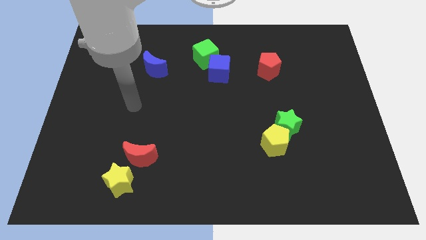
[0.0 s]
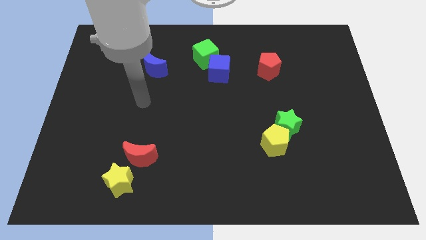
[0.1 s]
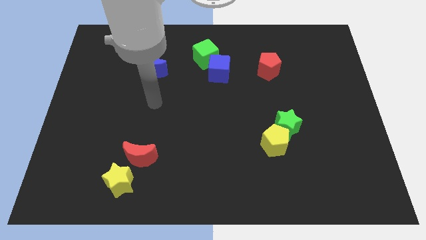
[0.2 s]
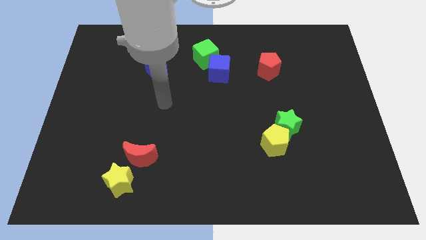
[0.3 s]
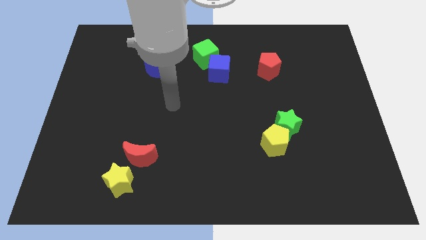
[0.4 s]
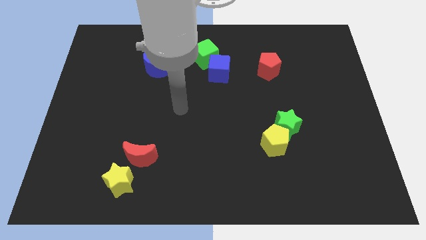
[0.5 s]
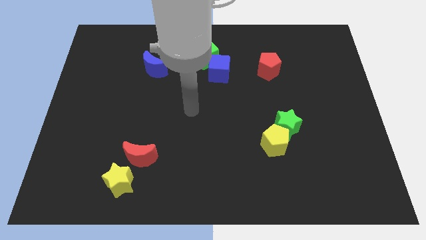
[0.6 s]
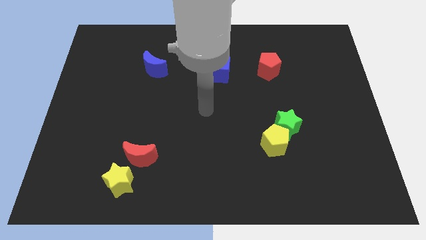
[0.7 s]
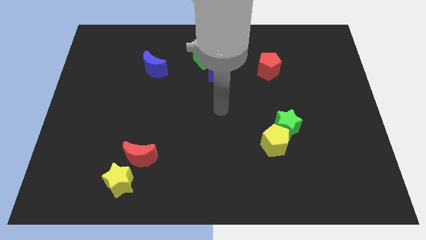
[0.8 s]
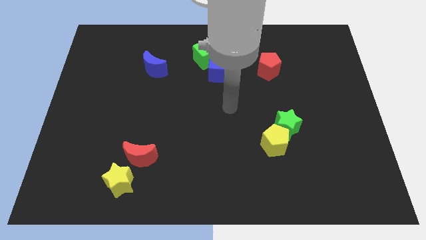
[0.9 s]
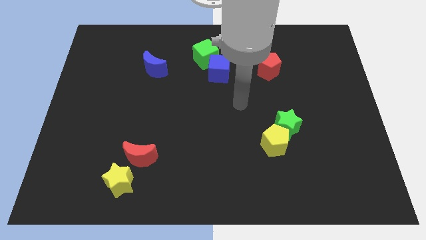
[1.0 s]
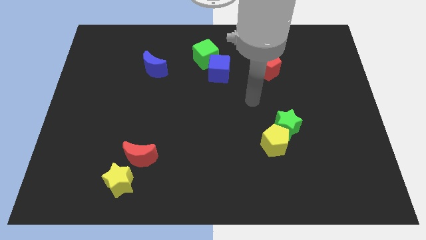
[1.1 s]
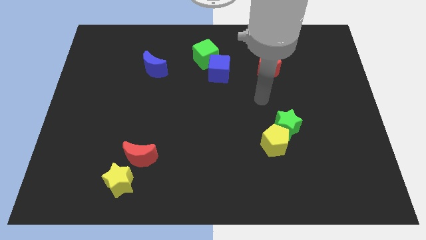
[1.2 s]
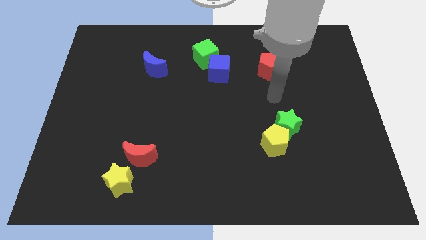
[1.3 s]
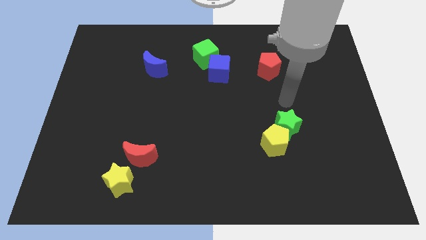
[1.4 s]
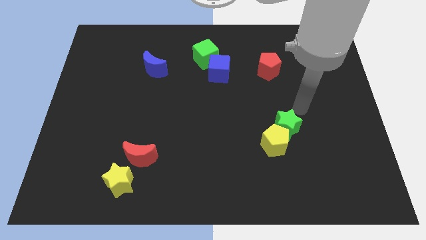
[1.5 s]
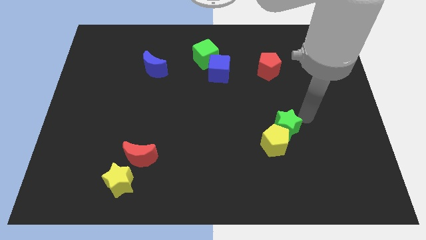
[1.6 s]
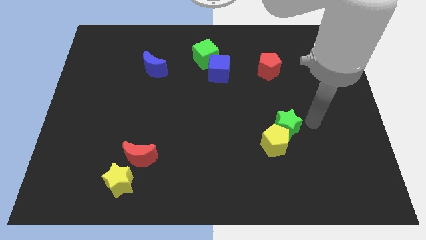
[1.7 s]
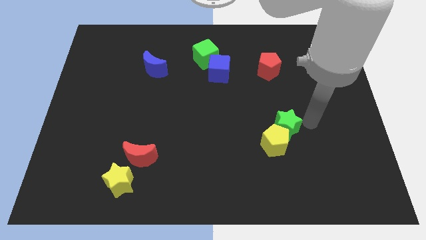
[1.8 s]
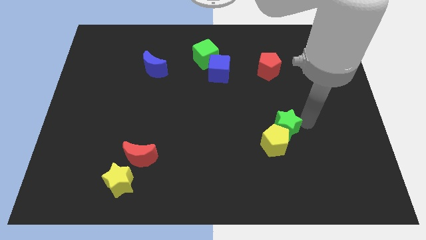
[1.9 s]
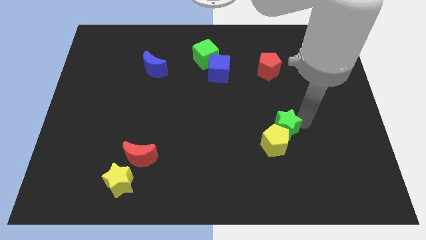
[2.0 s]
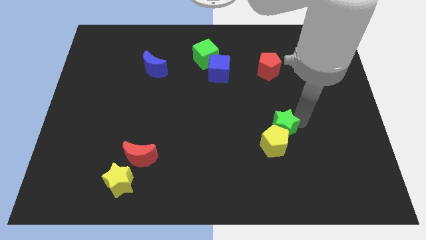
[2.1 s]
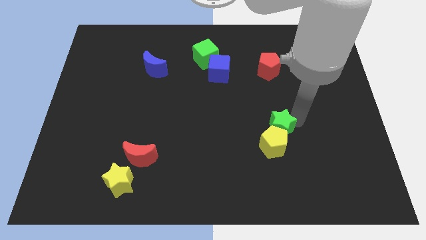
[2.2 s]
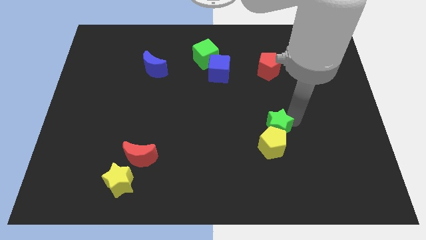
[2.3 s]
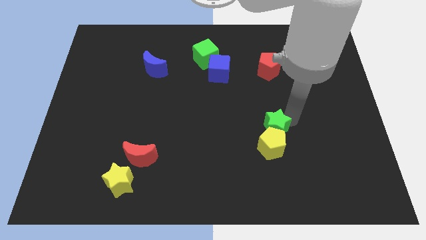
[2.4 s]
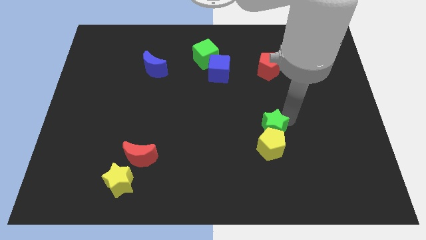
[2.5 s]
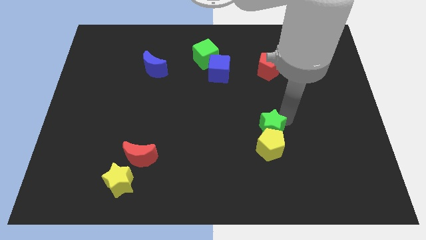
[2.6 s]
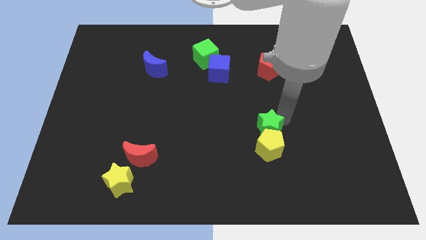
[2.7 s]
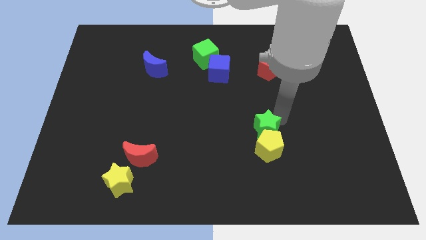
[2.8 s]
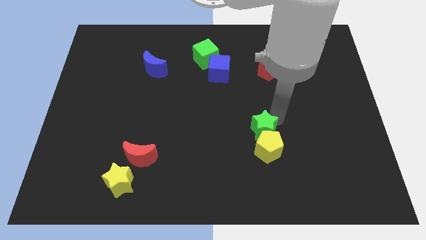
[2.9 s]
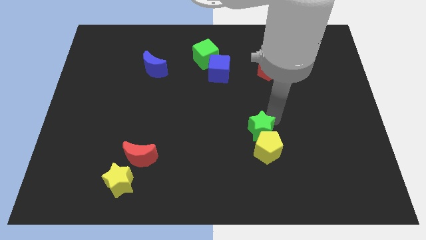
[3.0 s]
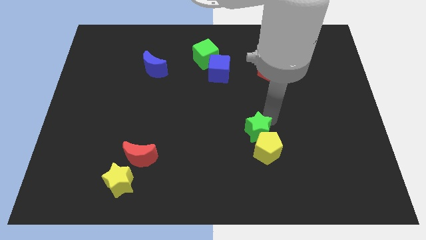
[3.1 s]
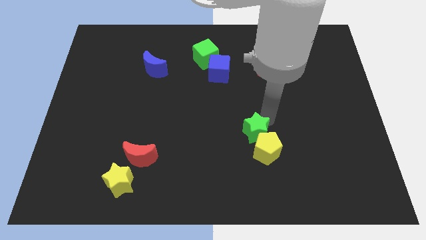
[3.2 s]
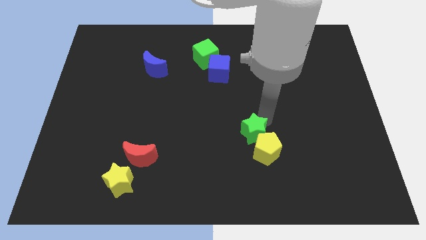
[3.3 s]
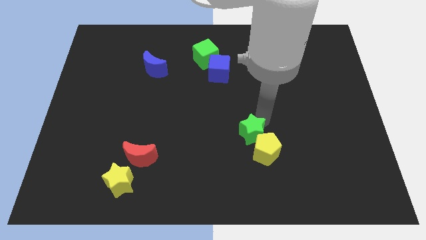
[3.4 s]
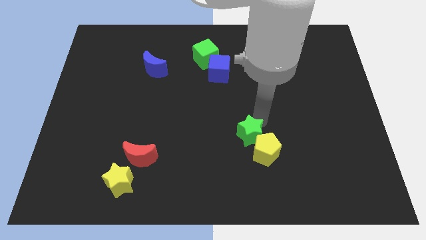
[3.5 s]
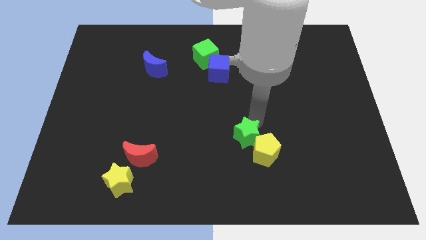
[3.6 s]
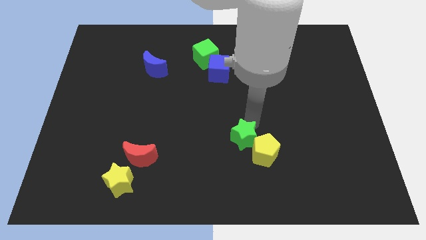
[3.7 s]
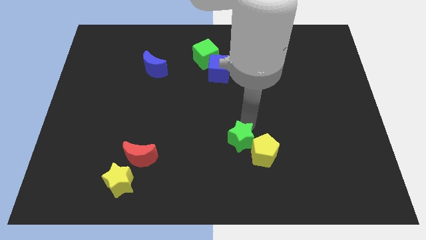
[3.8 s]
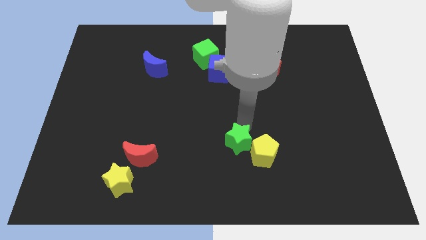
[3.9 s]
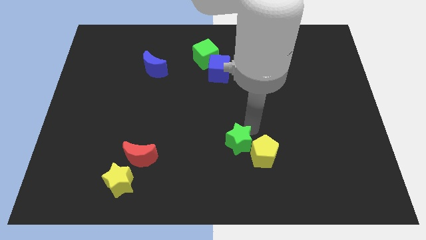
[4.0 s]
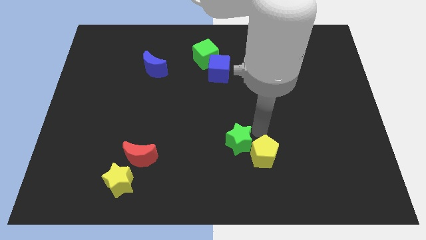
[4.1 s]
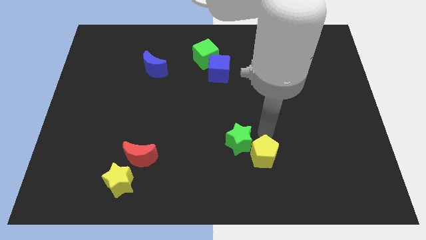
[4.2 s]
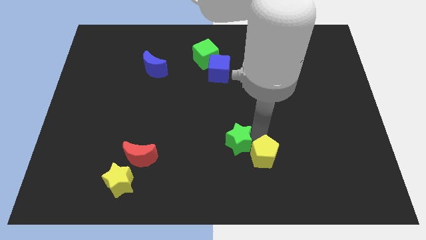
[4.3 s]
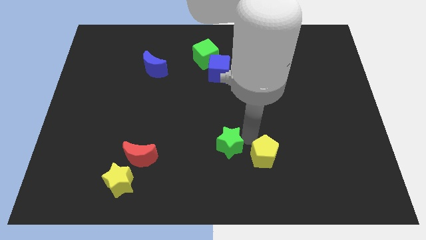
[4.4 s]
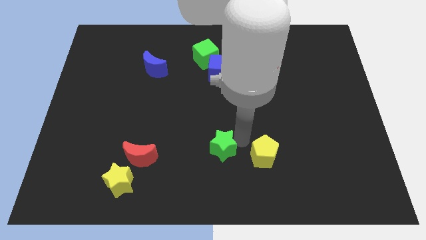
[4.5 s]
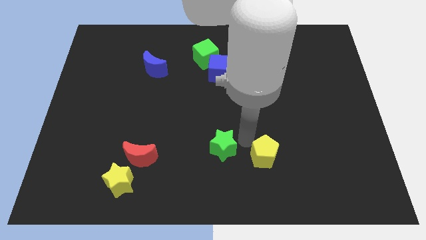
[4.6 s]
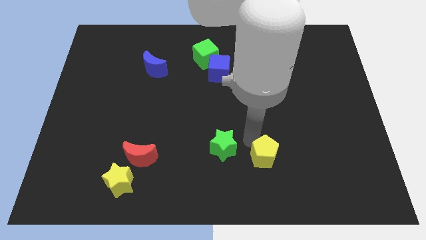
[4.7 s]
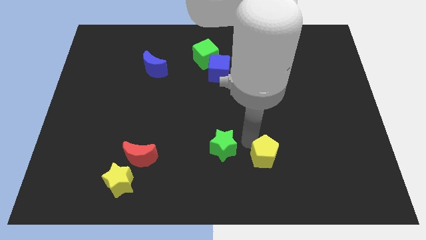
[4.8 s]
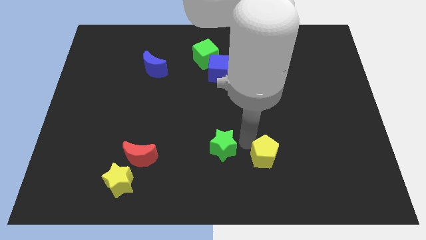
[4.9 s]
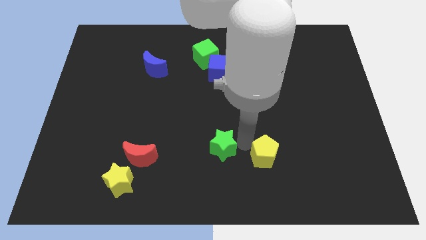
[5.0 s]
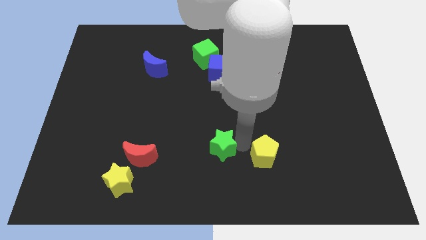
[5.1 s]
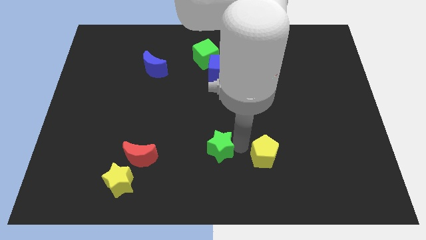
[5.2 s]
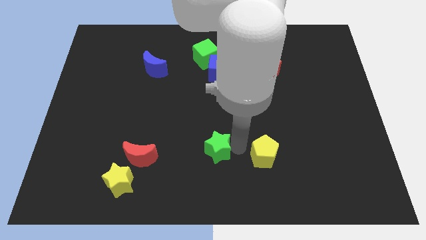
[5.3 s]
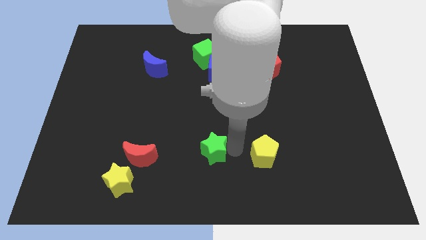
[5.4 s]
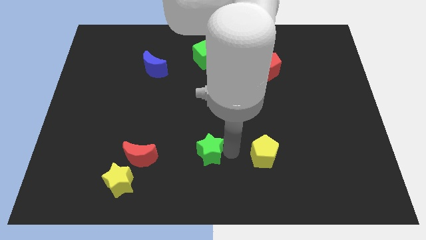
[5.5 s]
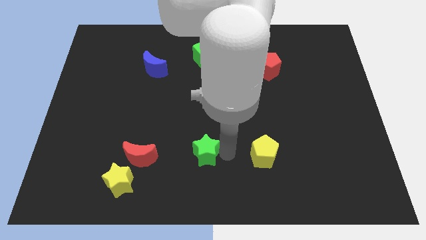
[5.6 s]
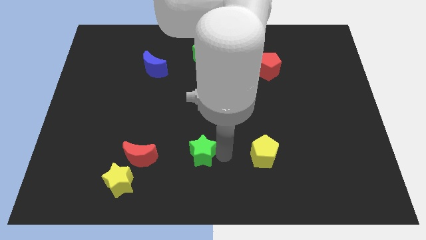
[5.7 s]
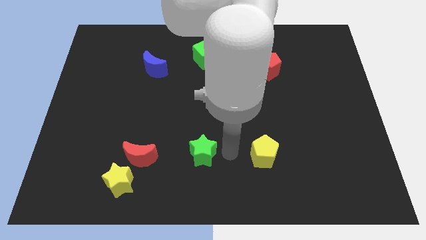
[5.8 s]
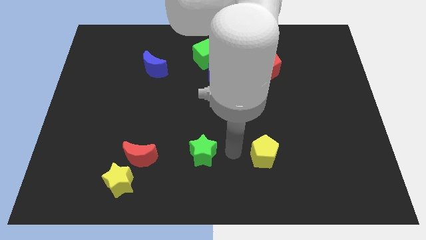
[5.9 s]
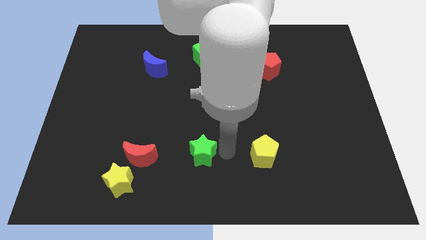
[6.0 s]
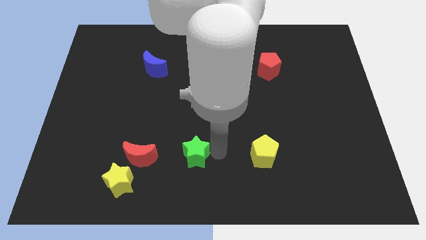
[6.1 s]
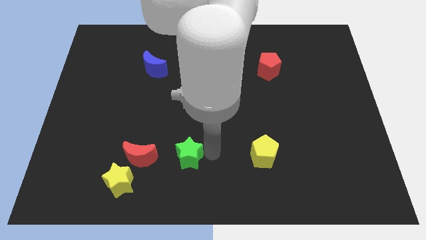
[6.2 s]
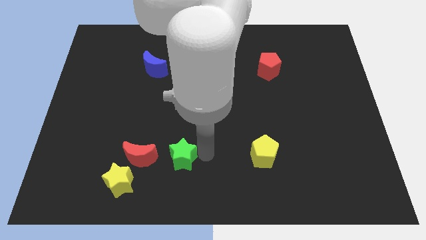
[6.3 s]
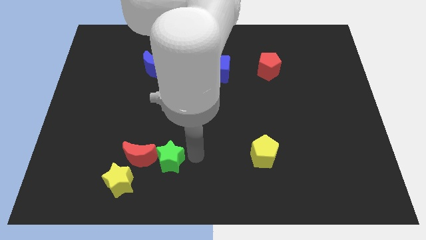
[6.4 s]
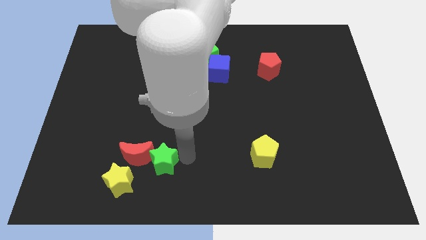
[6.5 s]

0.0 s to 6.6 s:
slide the green star towards the red moon

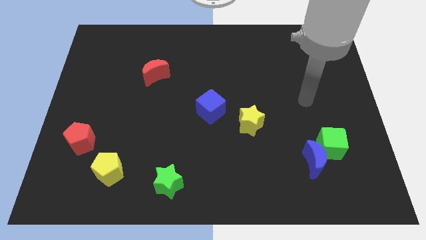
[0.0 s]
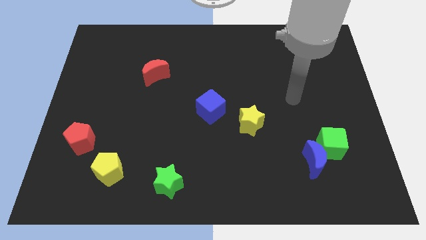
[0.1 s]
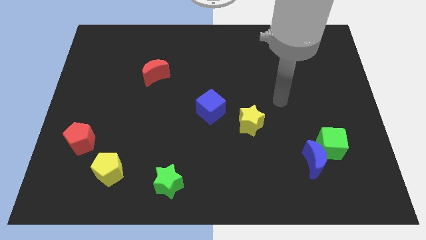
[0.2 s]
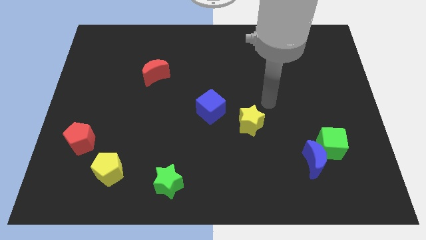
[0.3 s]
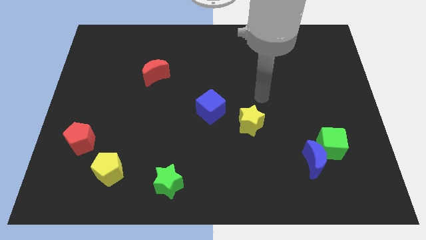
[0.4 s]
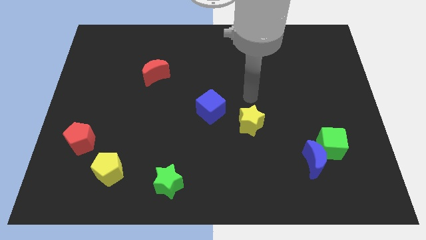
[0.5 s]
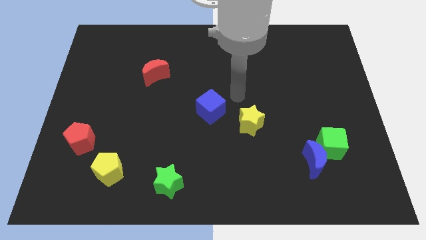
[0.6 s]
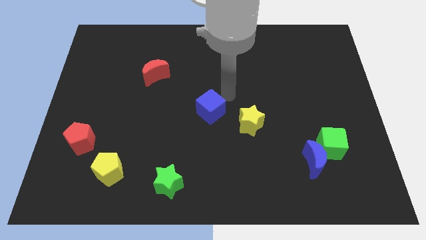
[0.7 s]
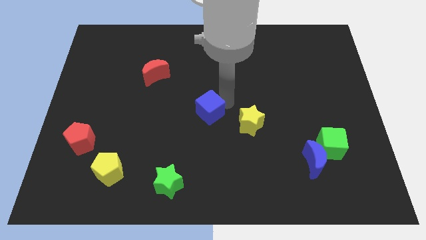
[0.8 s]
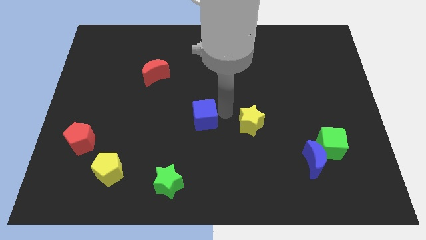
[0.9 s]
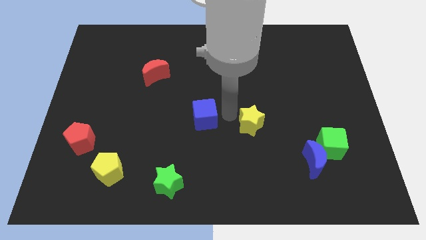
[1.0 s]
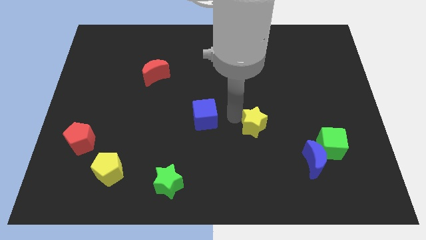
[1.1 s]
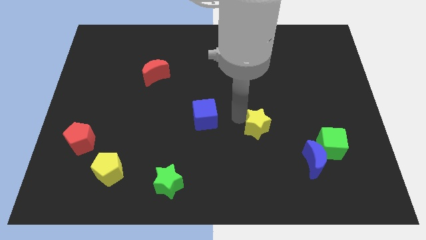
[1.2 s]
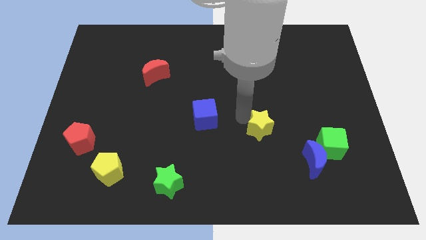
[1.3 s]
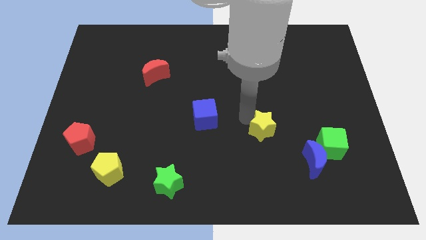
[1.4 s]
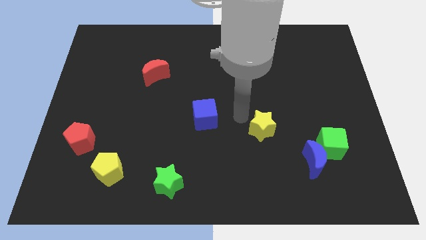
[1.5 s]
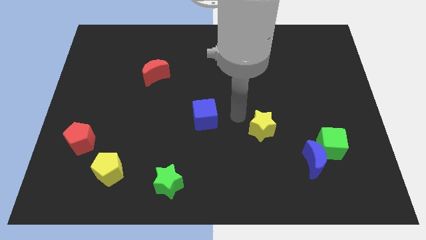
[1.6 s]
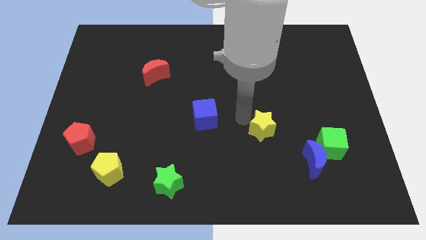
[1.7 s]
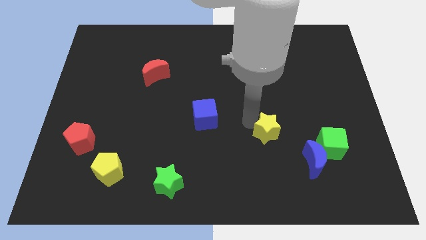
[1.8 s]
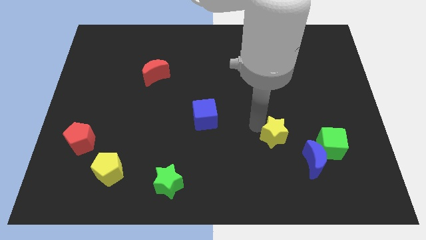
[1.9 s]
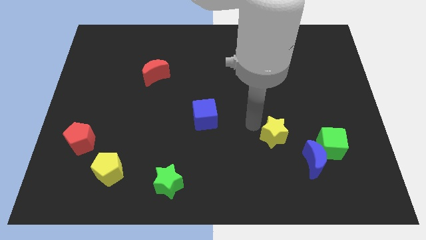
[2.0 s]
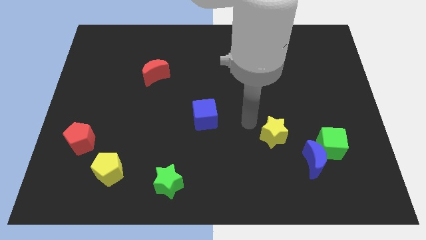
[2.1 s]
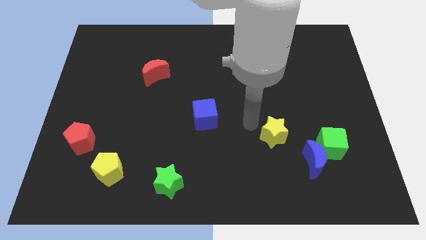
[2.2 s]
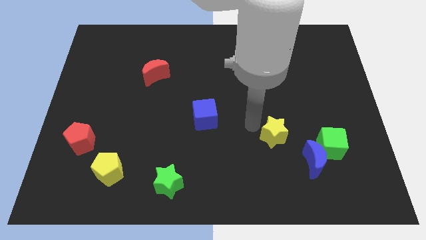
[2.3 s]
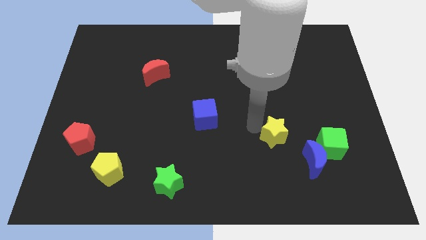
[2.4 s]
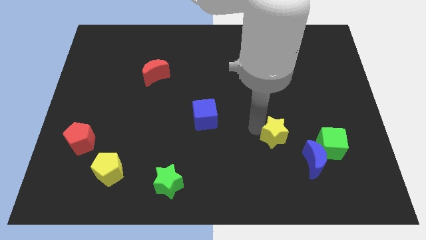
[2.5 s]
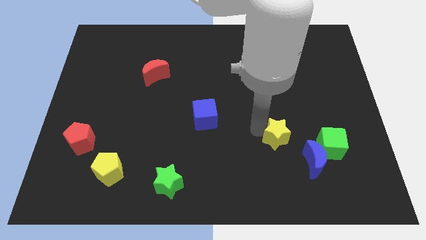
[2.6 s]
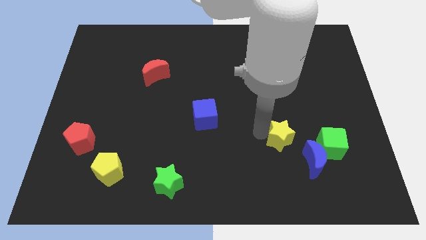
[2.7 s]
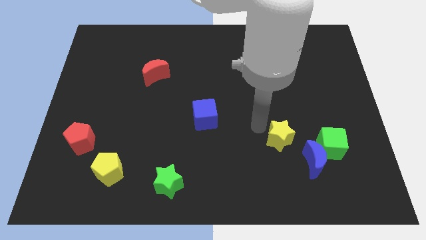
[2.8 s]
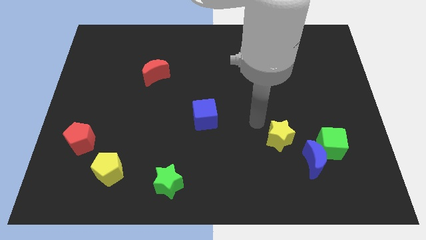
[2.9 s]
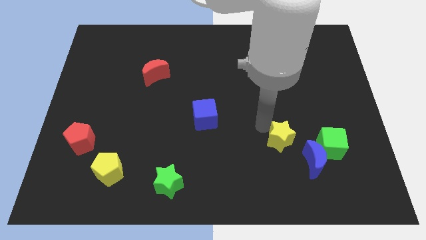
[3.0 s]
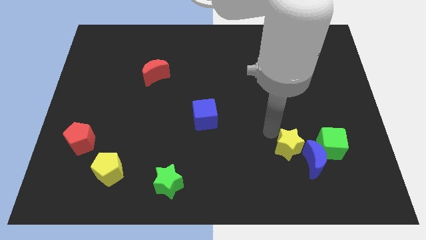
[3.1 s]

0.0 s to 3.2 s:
put the yellow star to the blue moon
